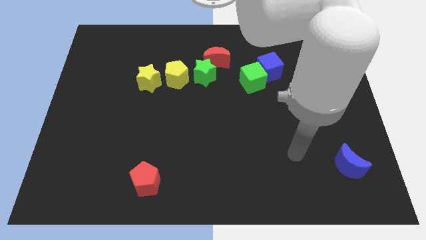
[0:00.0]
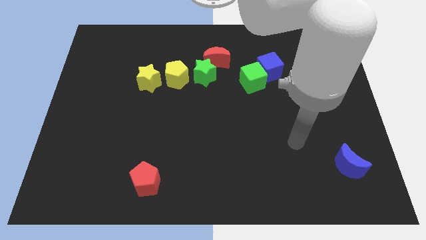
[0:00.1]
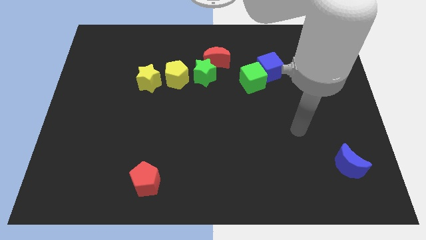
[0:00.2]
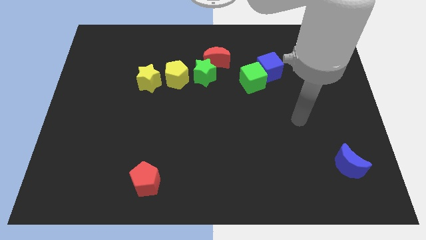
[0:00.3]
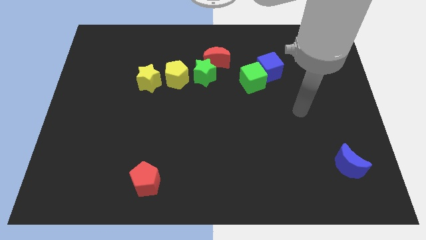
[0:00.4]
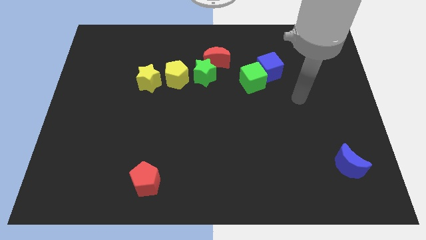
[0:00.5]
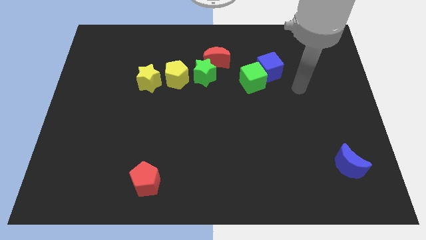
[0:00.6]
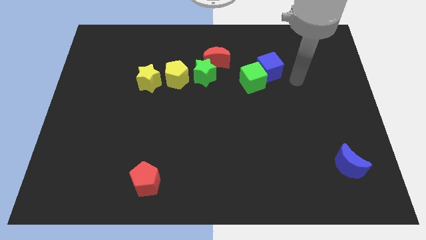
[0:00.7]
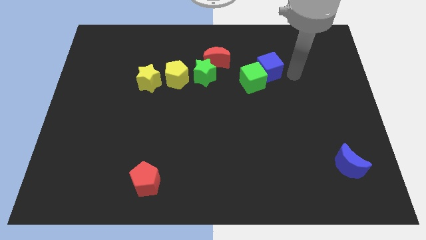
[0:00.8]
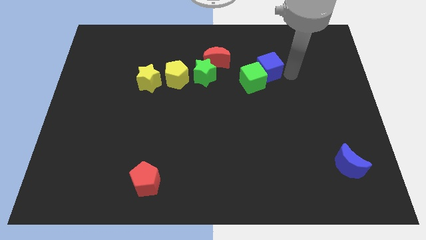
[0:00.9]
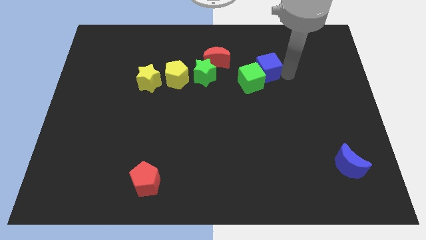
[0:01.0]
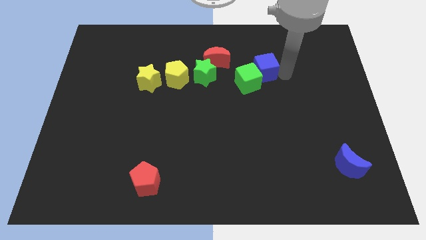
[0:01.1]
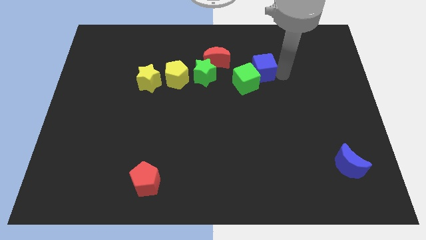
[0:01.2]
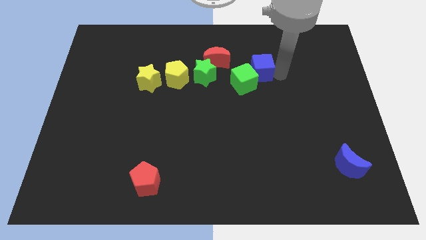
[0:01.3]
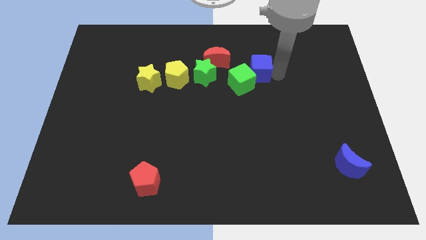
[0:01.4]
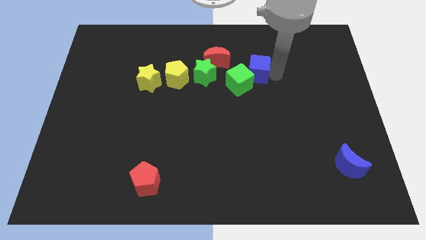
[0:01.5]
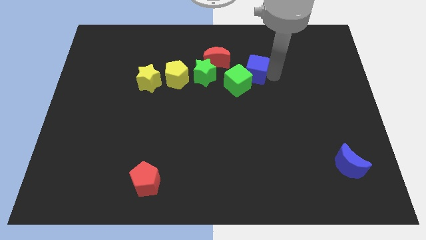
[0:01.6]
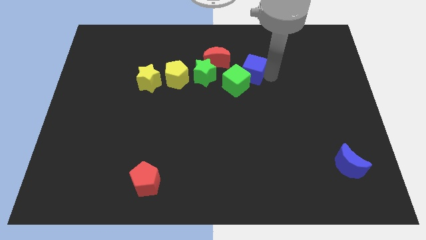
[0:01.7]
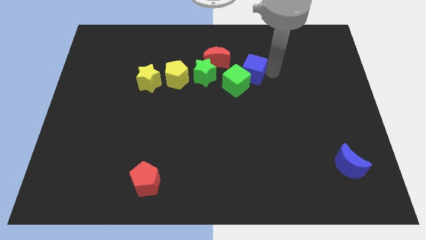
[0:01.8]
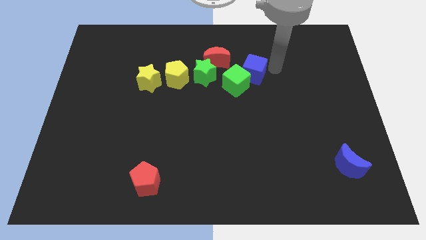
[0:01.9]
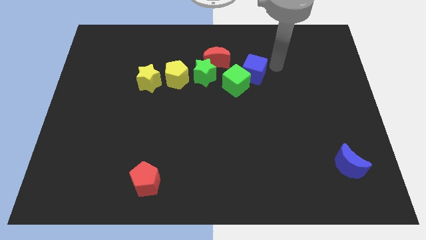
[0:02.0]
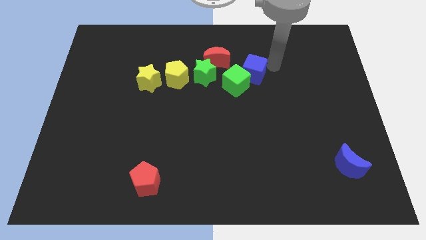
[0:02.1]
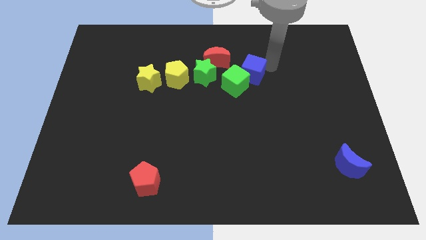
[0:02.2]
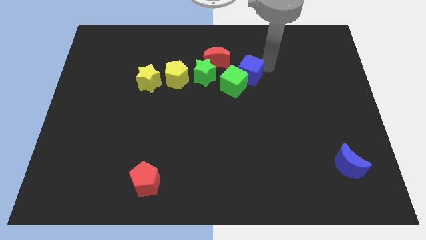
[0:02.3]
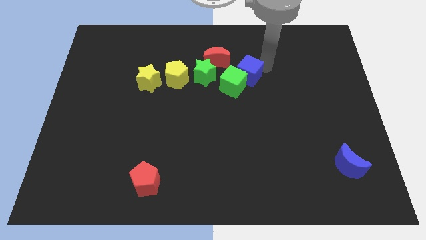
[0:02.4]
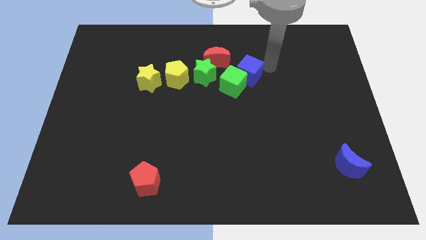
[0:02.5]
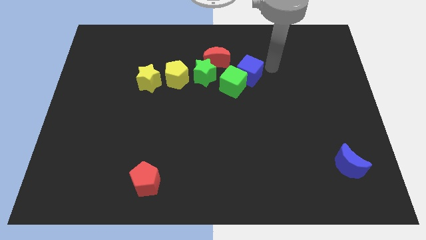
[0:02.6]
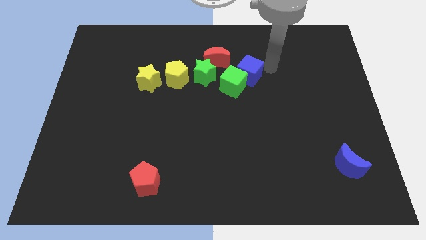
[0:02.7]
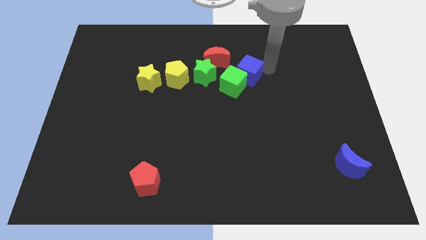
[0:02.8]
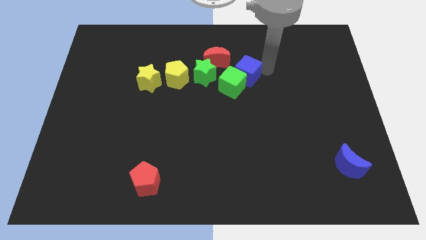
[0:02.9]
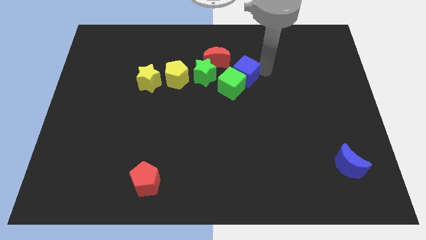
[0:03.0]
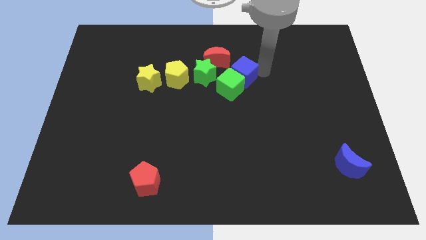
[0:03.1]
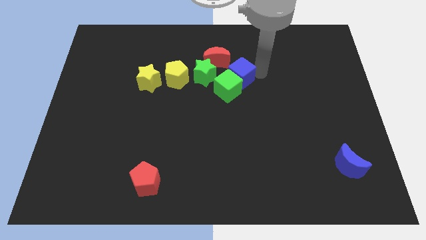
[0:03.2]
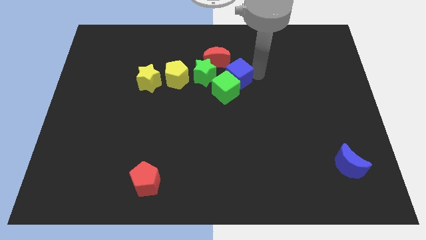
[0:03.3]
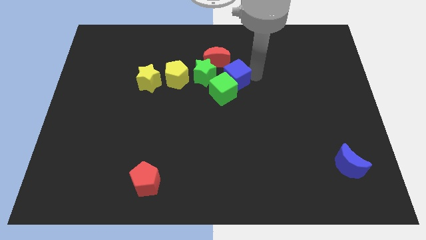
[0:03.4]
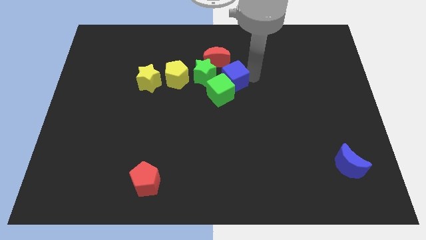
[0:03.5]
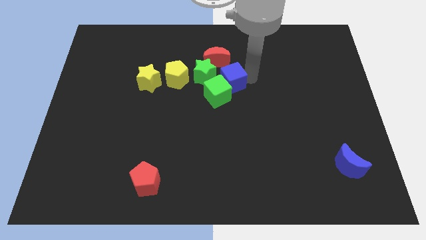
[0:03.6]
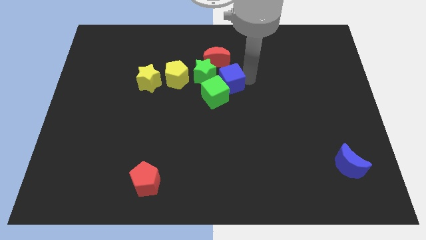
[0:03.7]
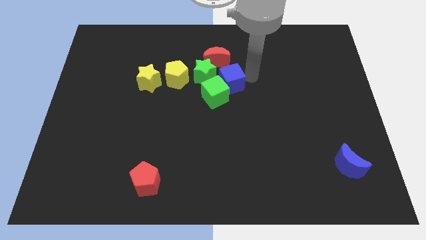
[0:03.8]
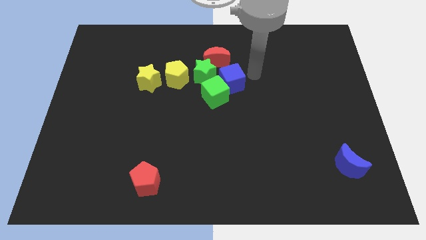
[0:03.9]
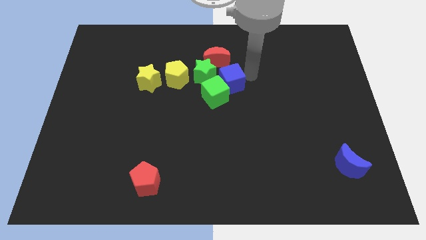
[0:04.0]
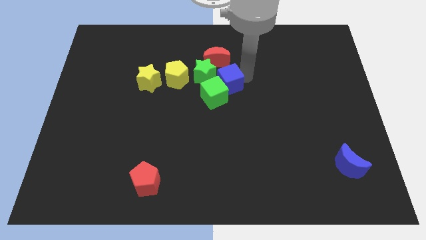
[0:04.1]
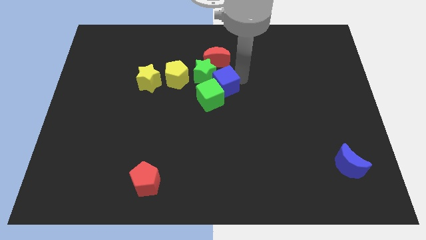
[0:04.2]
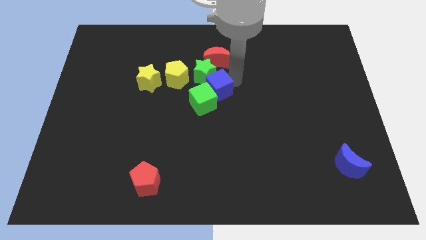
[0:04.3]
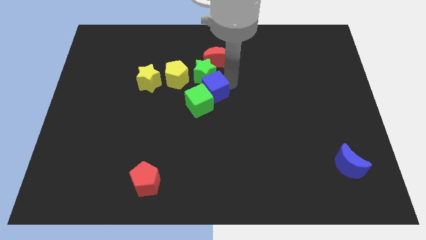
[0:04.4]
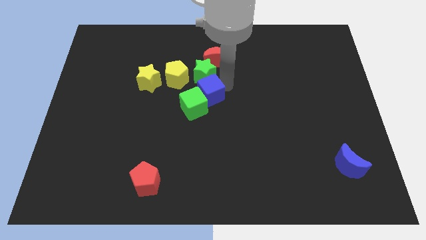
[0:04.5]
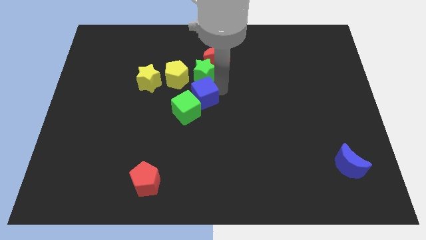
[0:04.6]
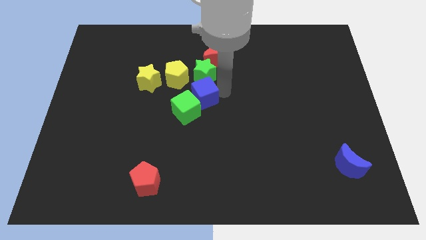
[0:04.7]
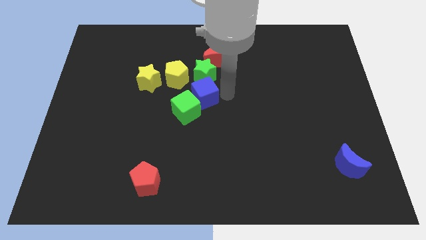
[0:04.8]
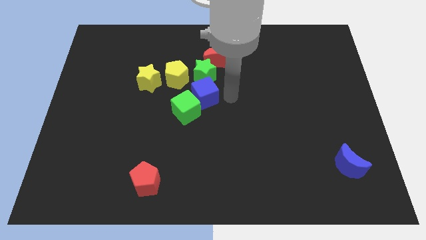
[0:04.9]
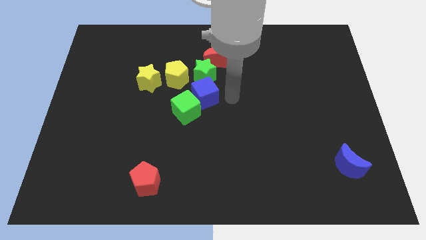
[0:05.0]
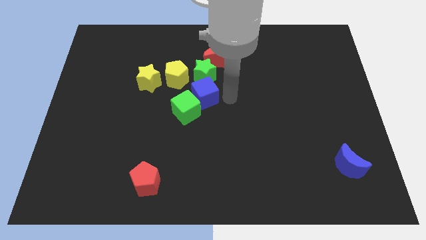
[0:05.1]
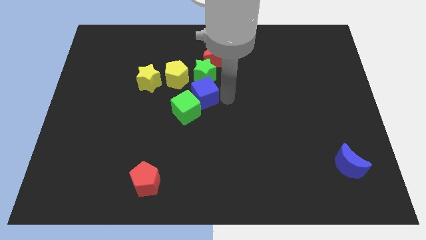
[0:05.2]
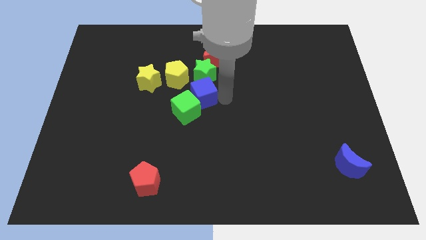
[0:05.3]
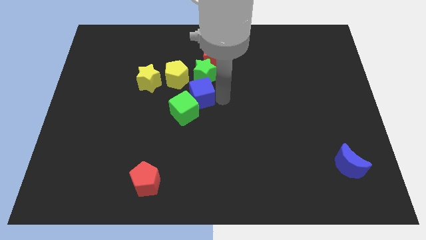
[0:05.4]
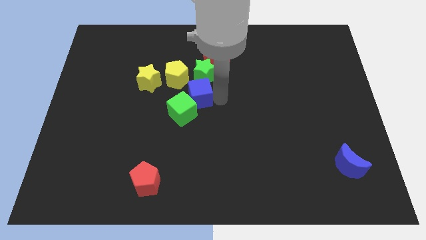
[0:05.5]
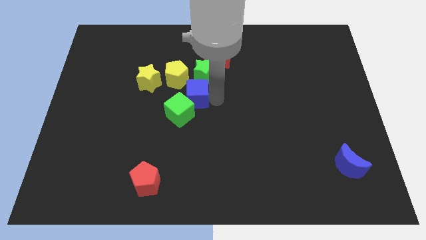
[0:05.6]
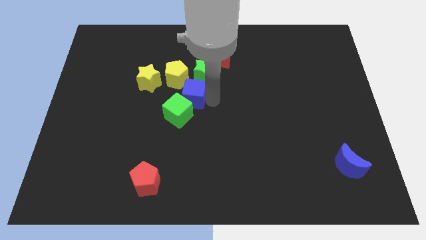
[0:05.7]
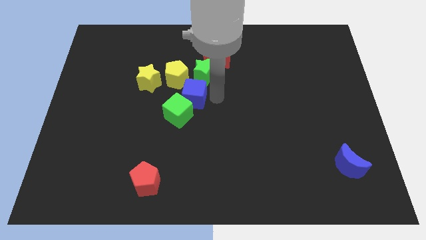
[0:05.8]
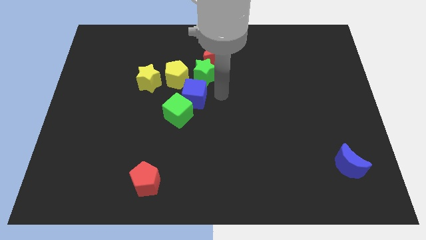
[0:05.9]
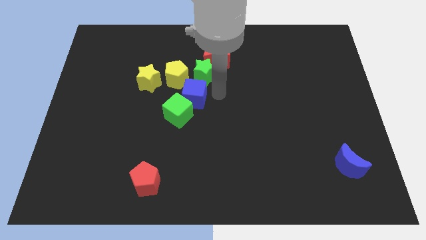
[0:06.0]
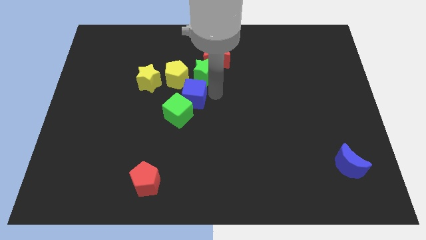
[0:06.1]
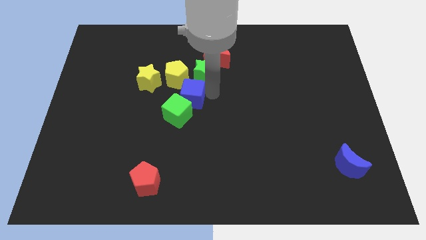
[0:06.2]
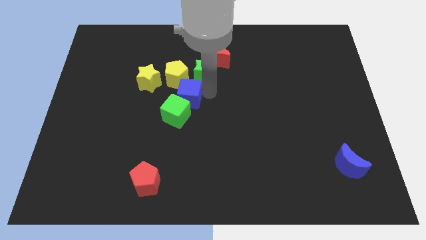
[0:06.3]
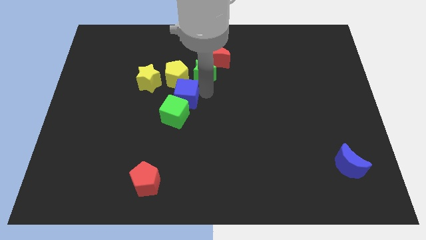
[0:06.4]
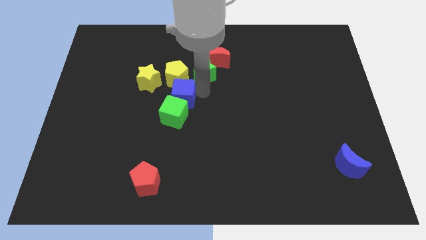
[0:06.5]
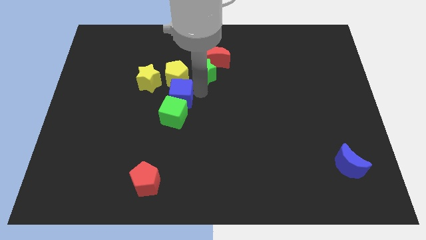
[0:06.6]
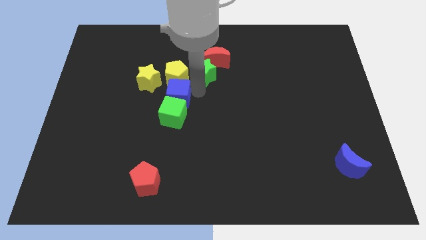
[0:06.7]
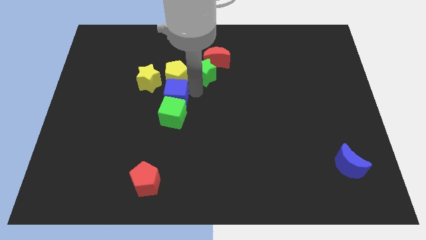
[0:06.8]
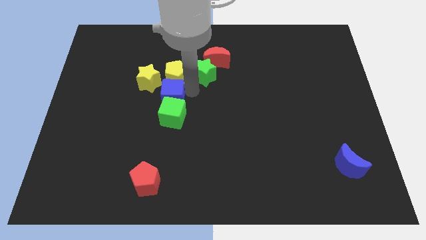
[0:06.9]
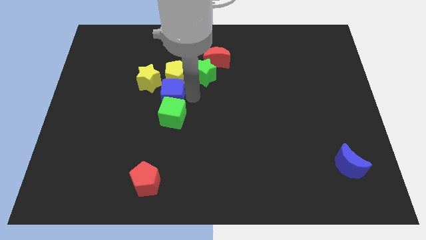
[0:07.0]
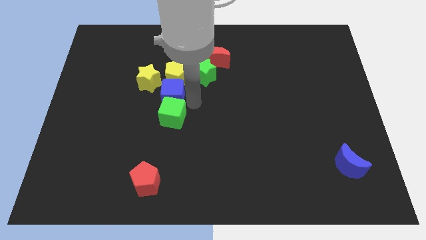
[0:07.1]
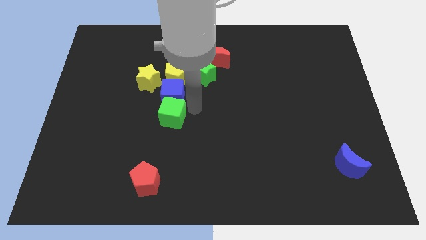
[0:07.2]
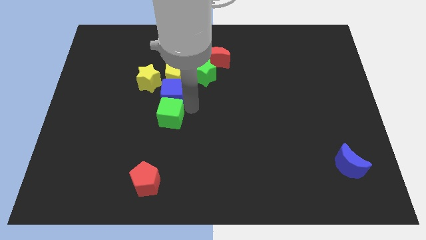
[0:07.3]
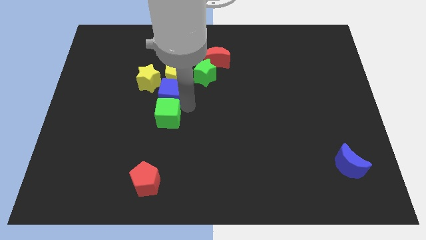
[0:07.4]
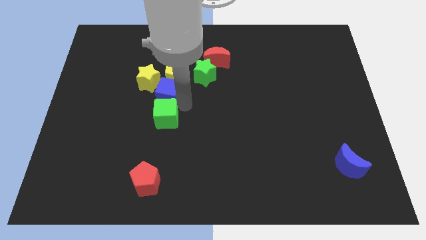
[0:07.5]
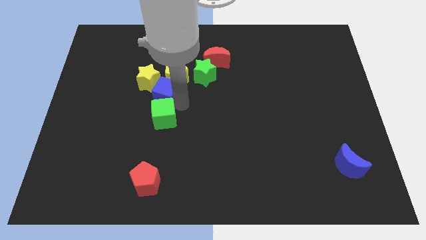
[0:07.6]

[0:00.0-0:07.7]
slide the blue cube close to the yellow star
